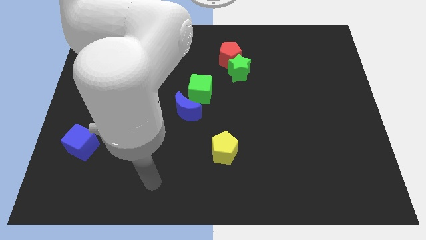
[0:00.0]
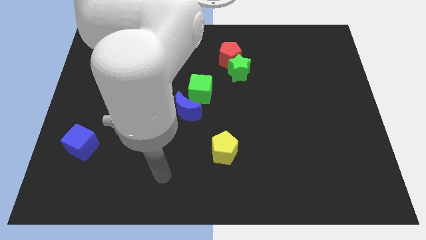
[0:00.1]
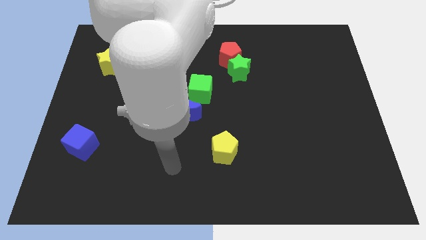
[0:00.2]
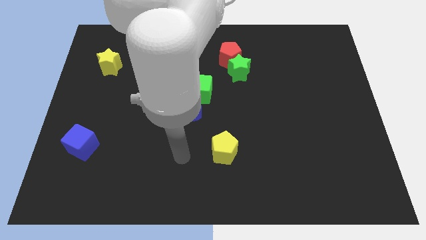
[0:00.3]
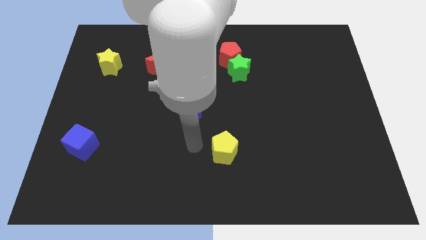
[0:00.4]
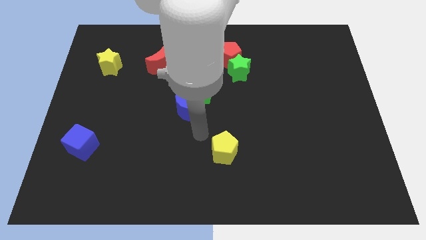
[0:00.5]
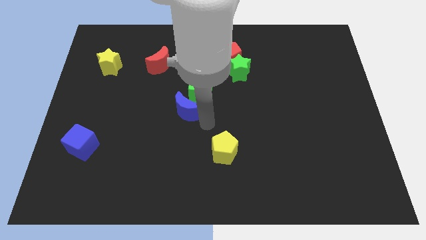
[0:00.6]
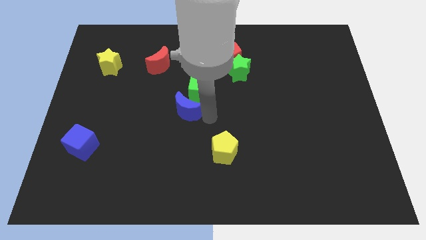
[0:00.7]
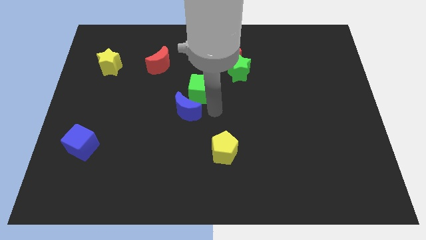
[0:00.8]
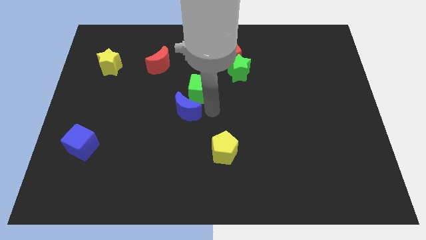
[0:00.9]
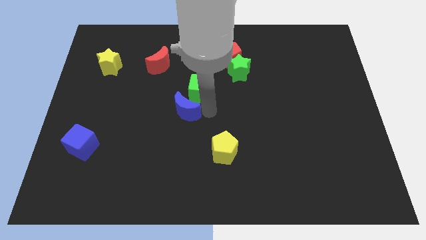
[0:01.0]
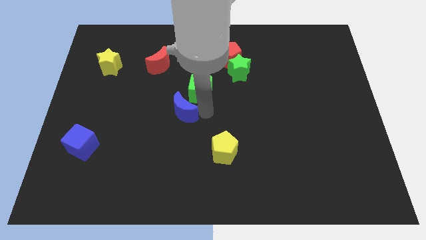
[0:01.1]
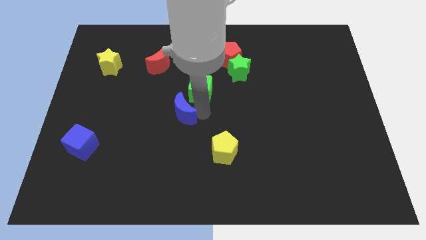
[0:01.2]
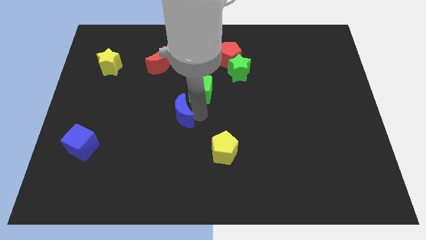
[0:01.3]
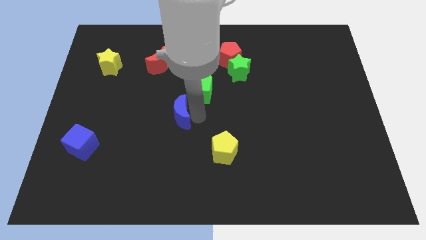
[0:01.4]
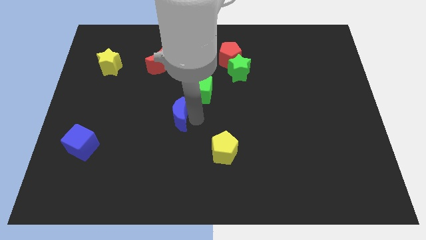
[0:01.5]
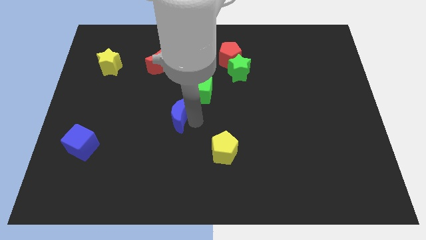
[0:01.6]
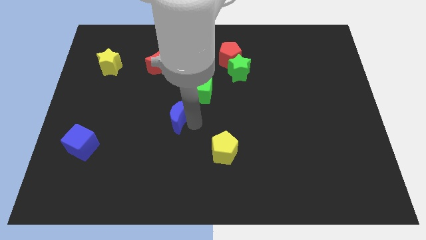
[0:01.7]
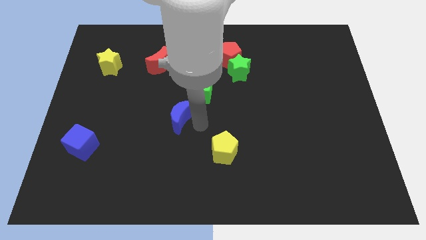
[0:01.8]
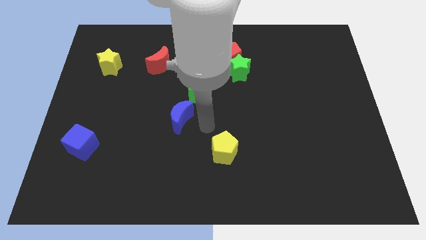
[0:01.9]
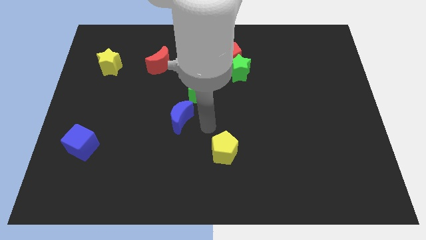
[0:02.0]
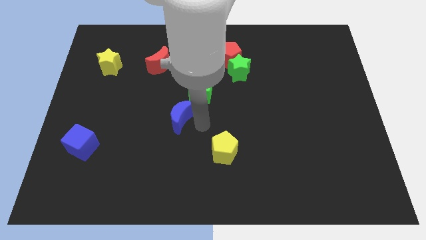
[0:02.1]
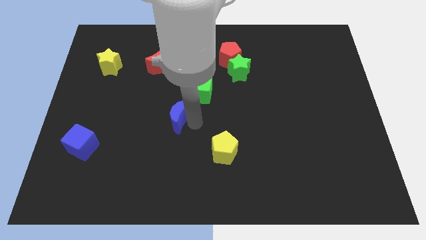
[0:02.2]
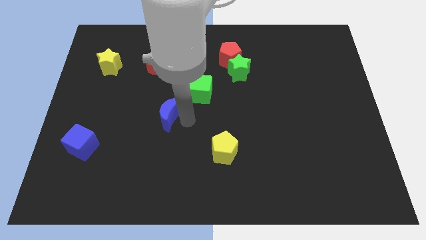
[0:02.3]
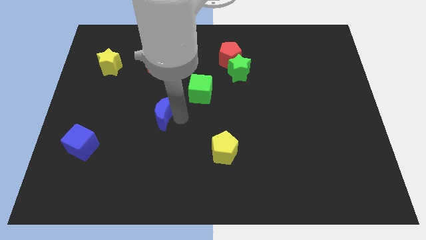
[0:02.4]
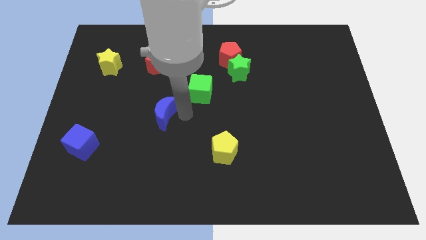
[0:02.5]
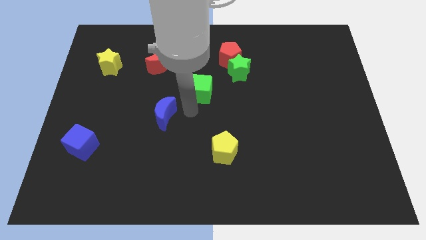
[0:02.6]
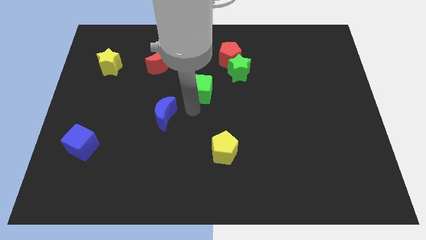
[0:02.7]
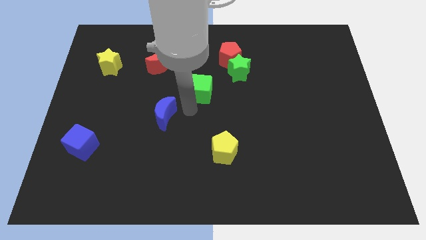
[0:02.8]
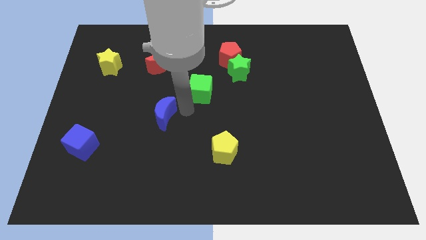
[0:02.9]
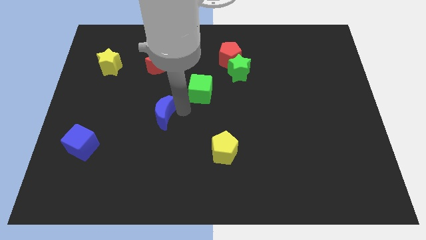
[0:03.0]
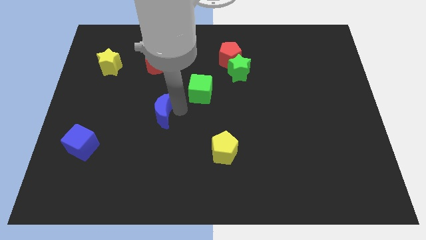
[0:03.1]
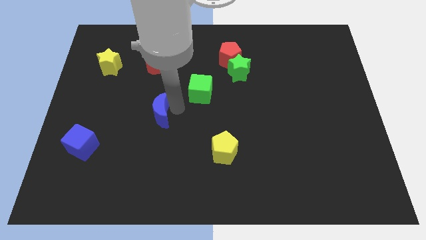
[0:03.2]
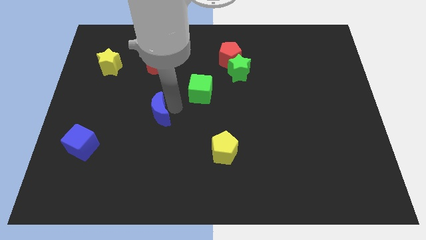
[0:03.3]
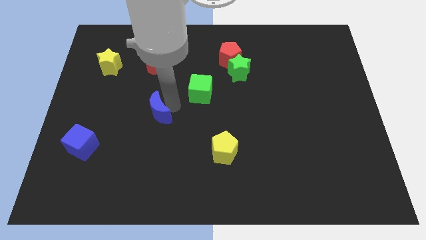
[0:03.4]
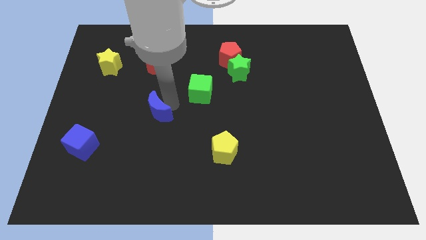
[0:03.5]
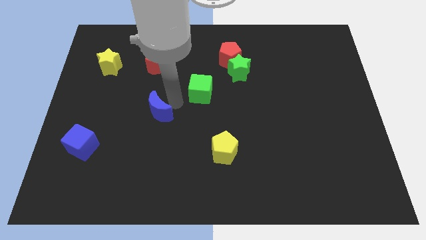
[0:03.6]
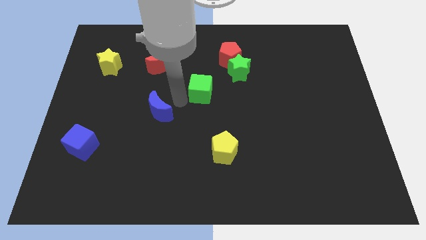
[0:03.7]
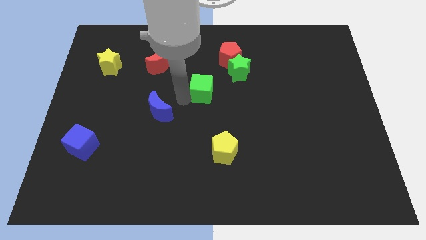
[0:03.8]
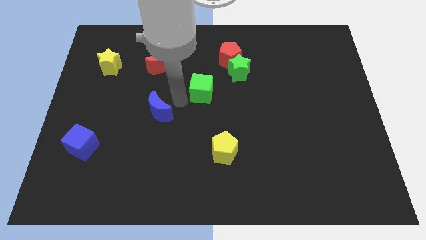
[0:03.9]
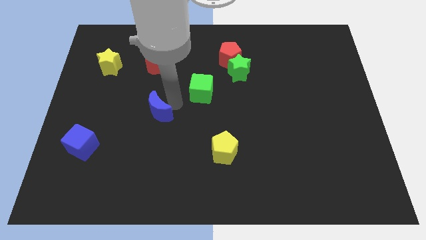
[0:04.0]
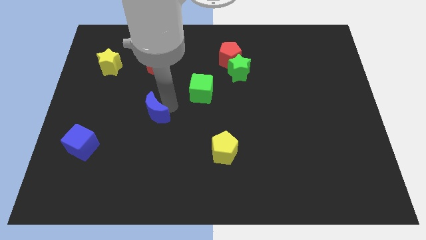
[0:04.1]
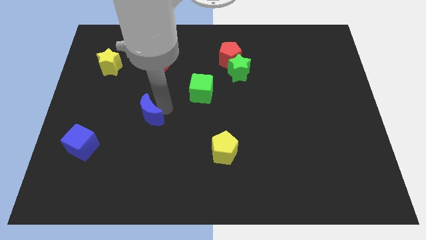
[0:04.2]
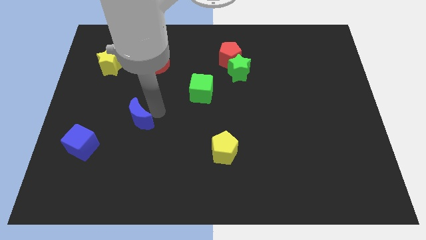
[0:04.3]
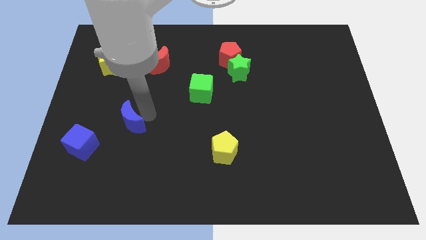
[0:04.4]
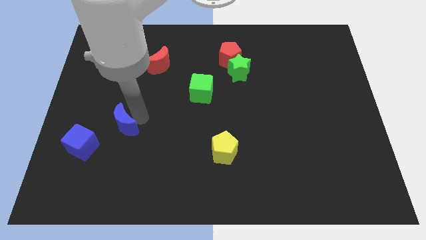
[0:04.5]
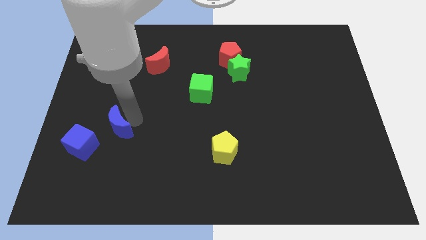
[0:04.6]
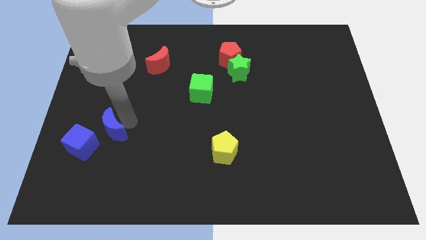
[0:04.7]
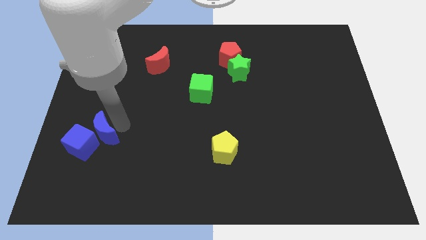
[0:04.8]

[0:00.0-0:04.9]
move the blue moon close to the blue cube

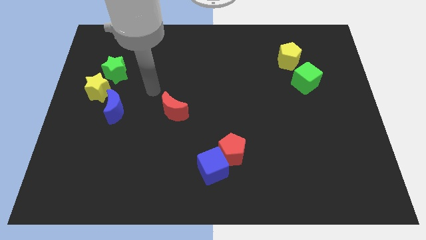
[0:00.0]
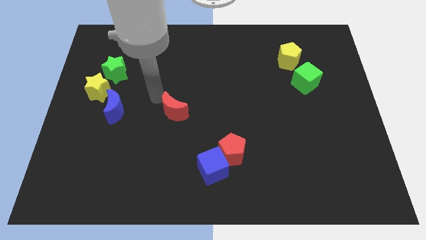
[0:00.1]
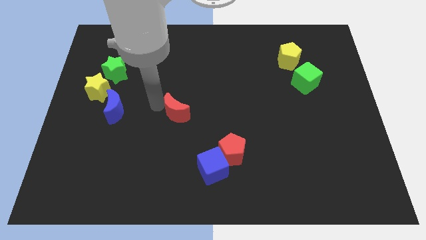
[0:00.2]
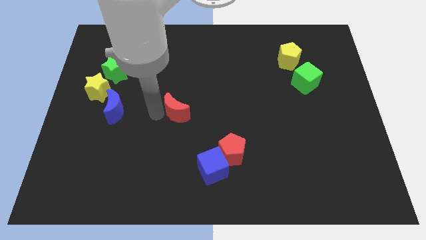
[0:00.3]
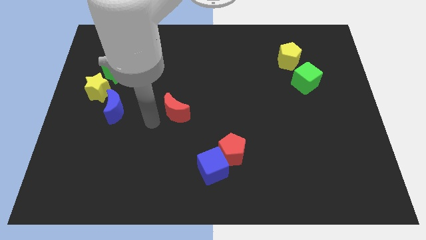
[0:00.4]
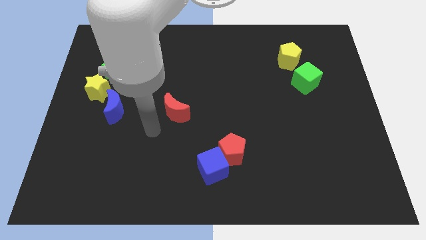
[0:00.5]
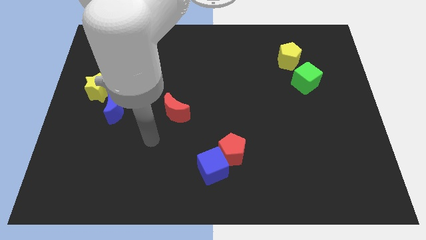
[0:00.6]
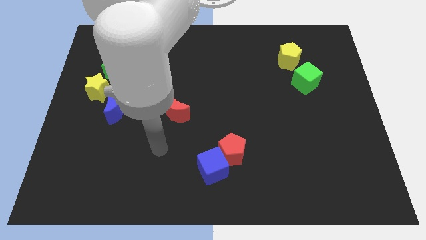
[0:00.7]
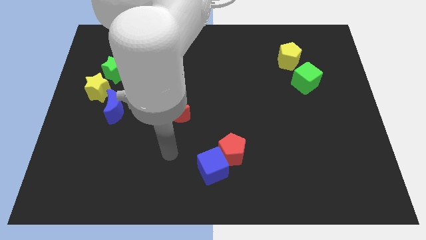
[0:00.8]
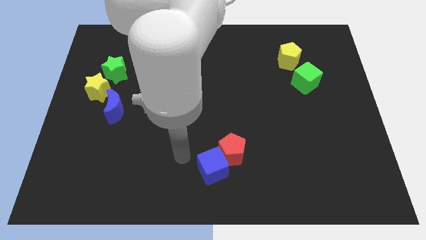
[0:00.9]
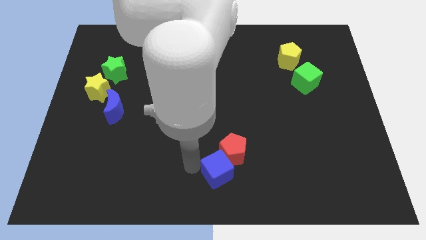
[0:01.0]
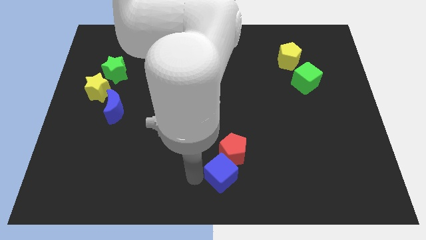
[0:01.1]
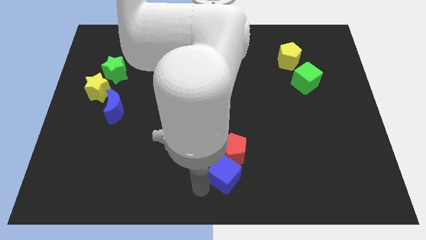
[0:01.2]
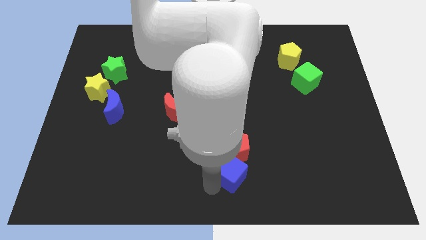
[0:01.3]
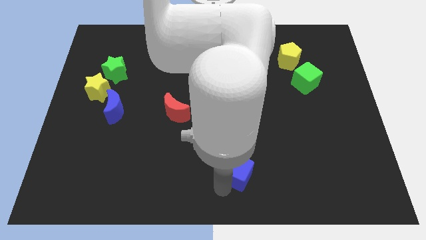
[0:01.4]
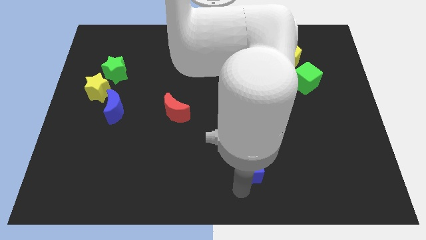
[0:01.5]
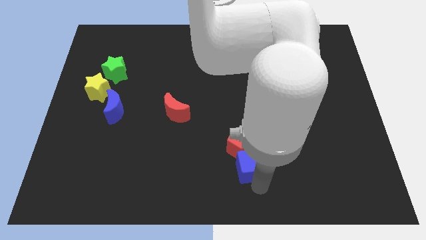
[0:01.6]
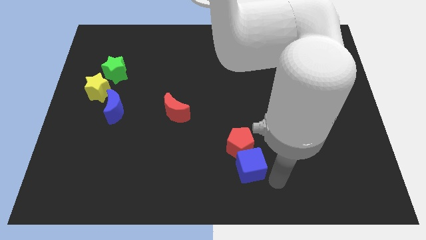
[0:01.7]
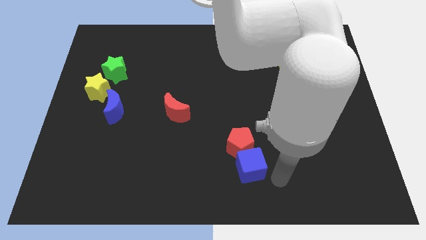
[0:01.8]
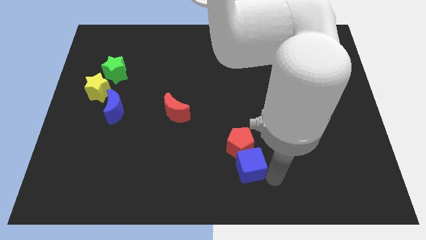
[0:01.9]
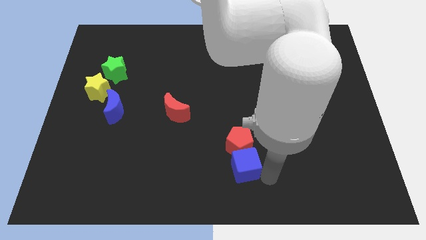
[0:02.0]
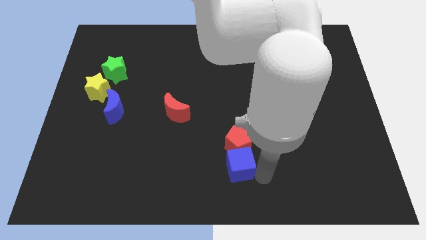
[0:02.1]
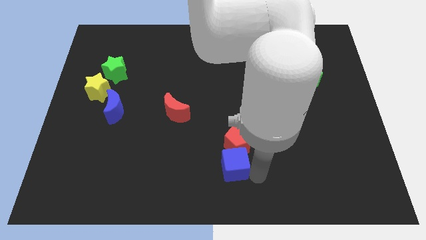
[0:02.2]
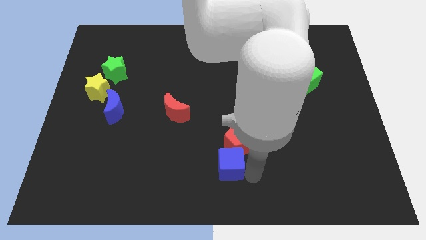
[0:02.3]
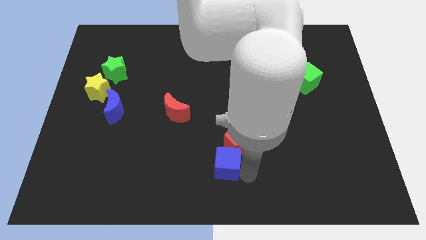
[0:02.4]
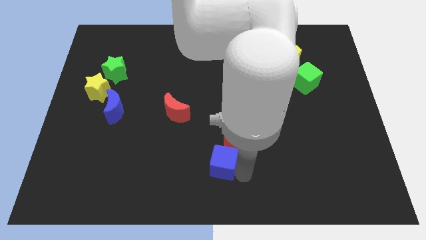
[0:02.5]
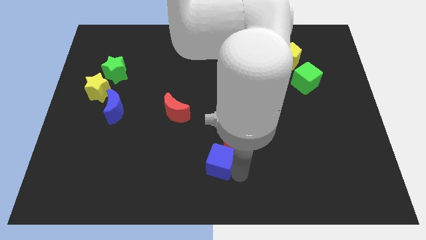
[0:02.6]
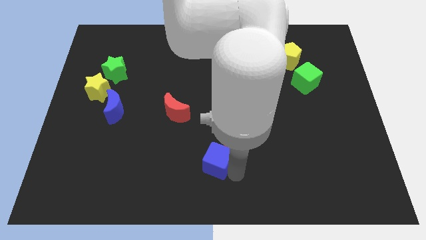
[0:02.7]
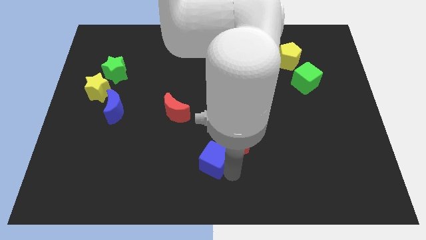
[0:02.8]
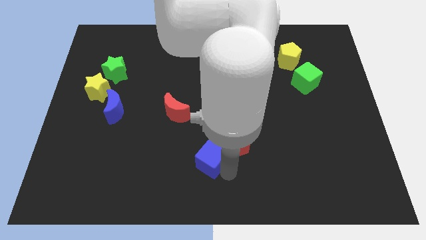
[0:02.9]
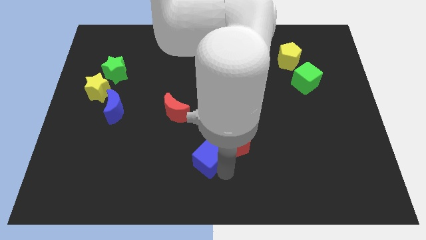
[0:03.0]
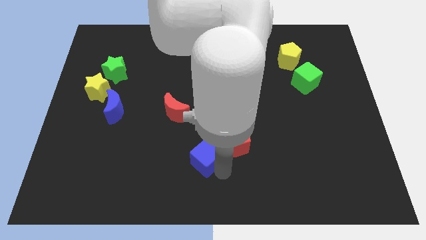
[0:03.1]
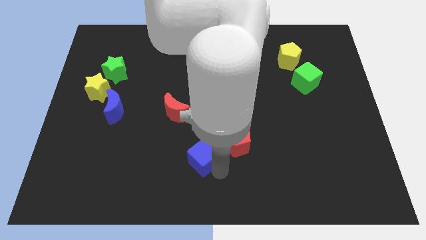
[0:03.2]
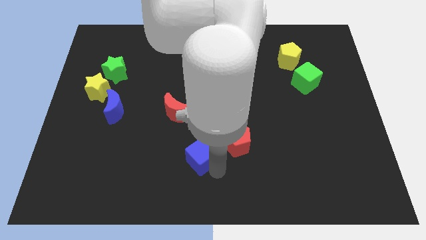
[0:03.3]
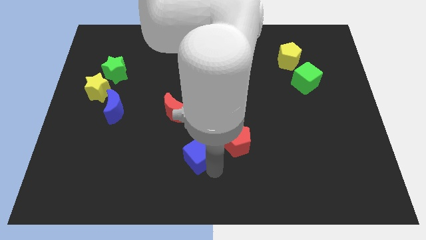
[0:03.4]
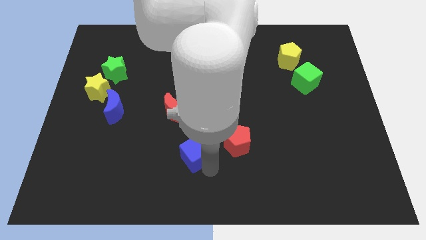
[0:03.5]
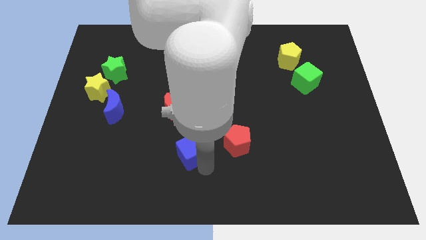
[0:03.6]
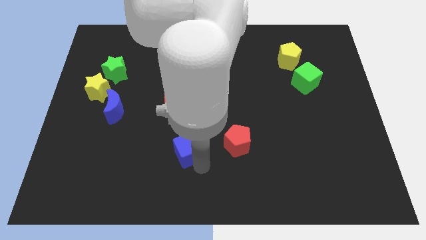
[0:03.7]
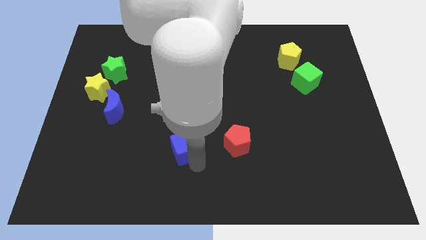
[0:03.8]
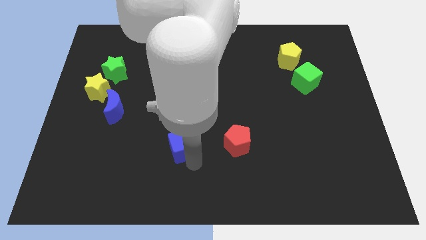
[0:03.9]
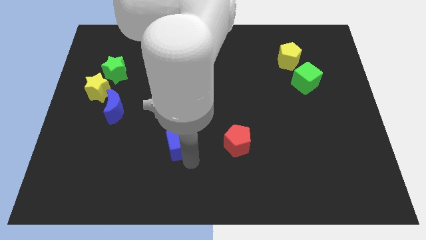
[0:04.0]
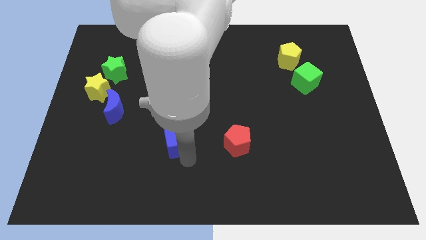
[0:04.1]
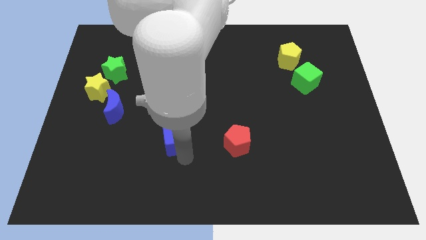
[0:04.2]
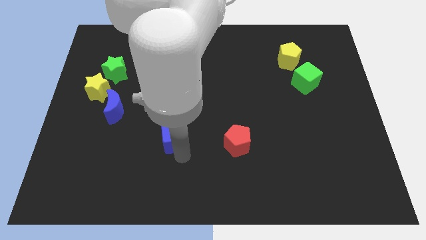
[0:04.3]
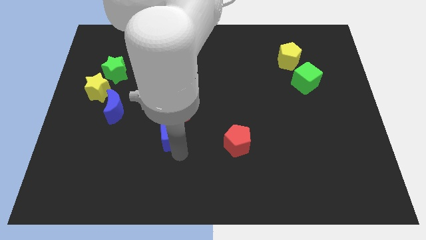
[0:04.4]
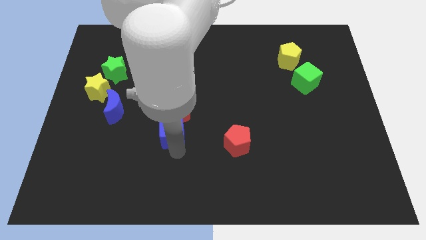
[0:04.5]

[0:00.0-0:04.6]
slide the blue cube next to the red moon
